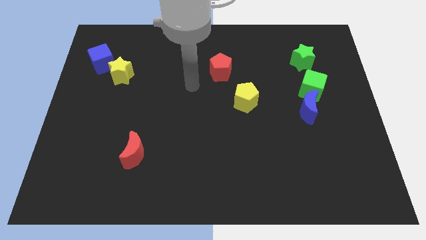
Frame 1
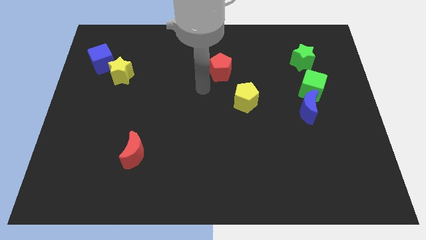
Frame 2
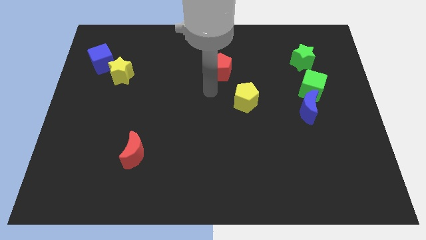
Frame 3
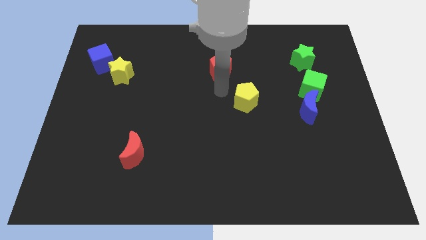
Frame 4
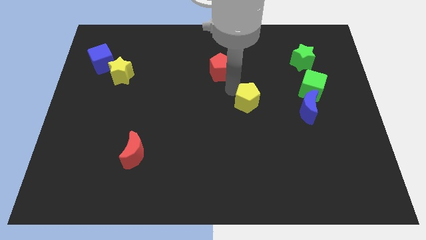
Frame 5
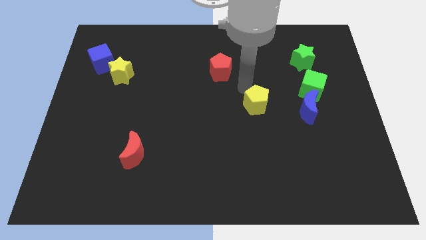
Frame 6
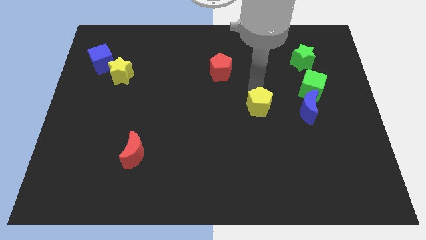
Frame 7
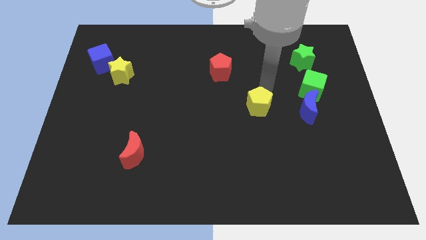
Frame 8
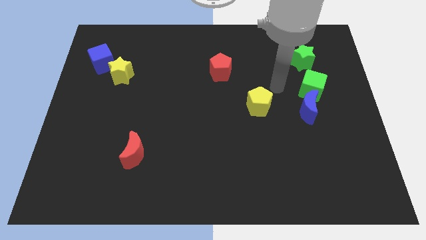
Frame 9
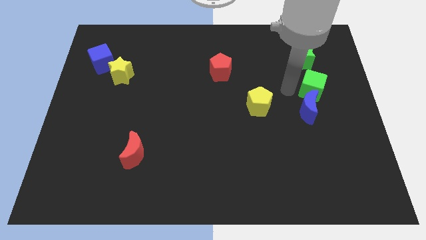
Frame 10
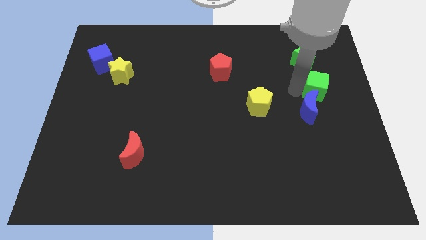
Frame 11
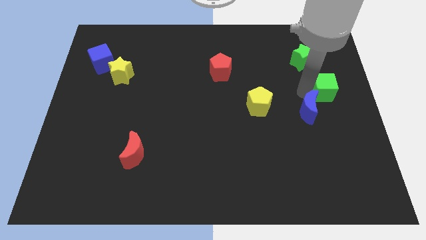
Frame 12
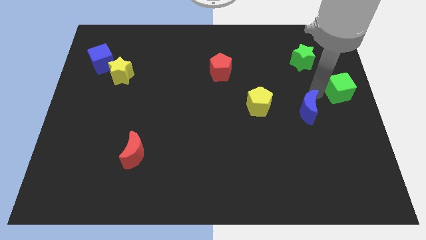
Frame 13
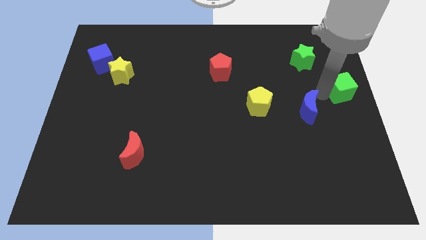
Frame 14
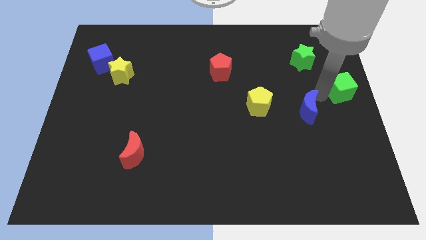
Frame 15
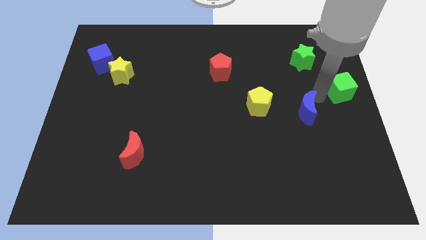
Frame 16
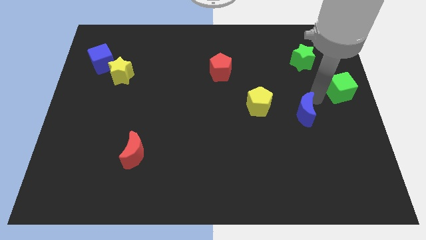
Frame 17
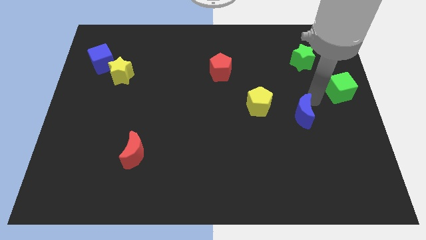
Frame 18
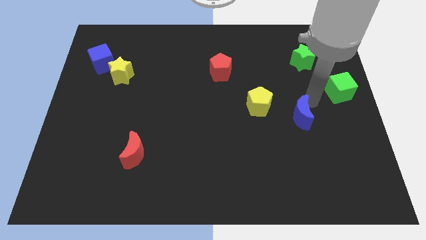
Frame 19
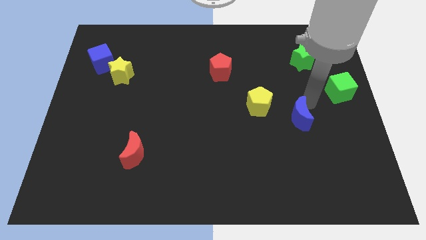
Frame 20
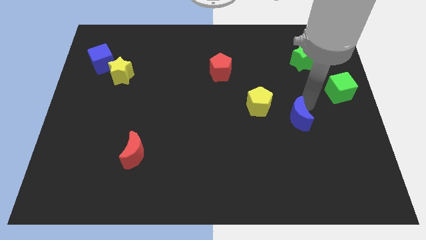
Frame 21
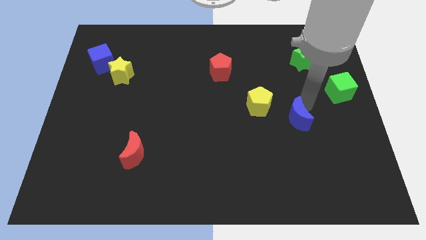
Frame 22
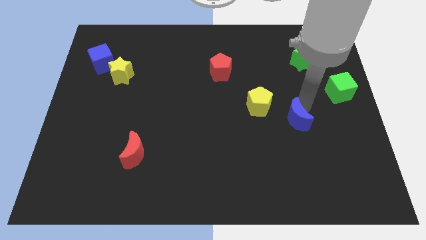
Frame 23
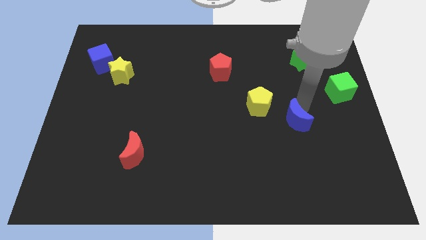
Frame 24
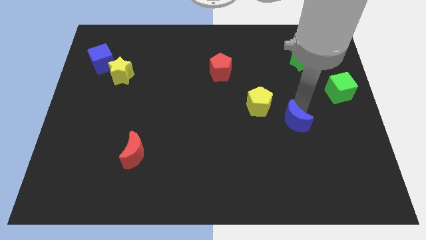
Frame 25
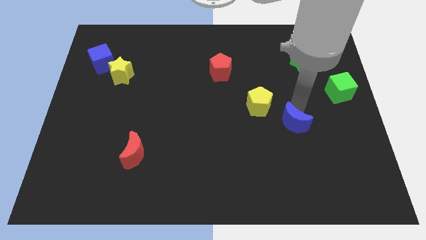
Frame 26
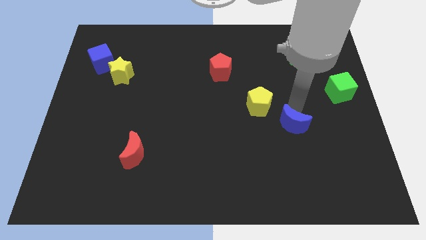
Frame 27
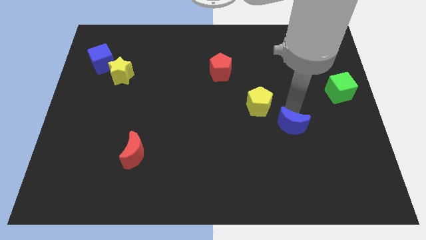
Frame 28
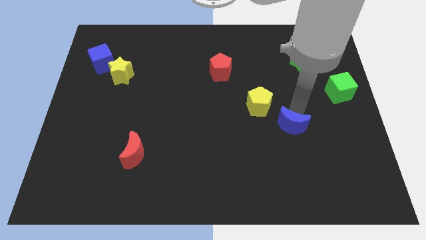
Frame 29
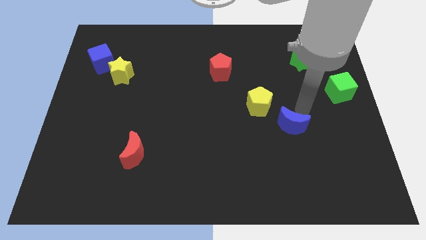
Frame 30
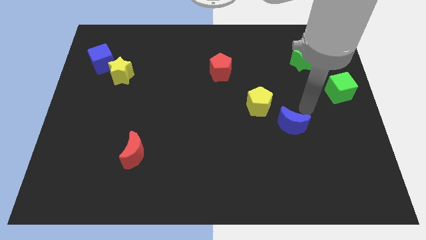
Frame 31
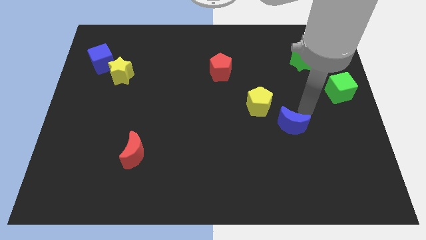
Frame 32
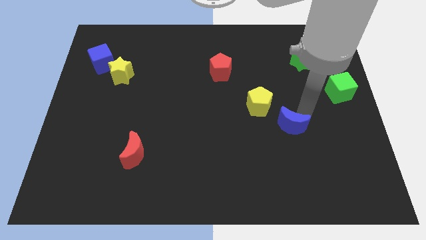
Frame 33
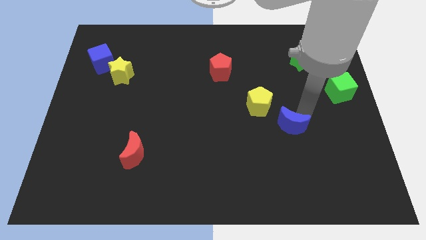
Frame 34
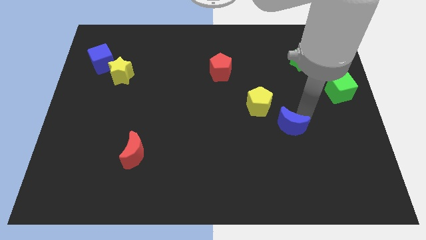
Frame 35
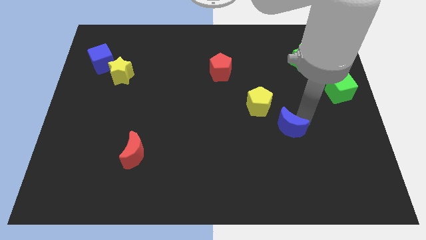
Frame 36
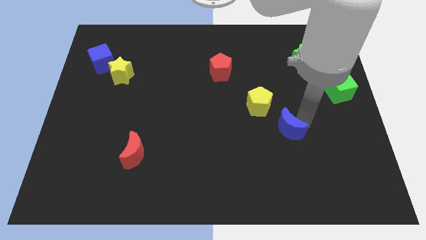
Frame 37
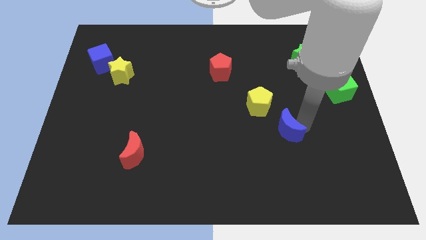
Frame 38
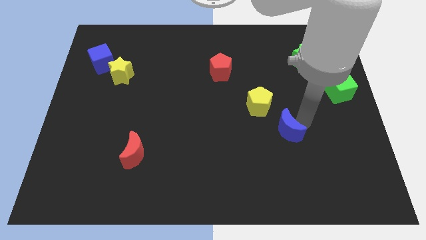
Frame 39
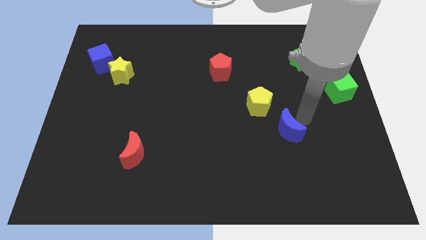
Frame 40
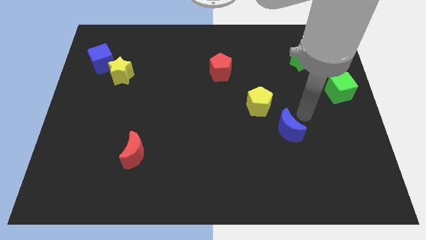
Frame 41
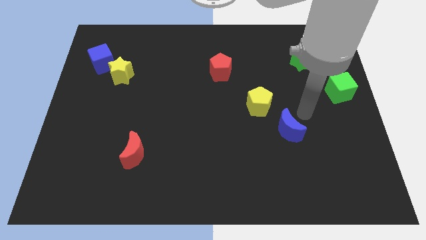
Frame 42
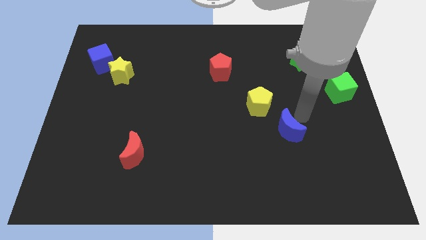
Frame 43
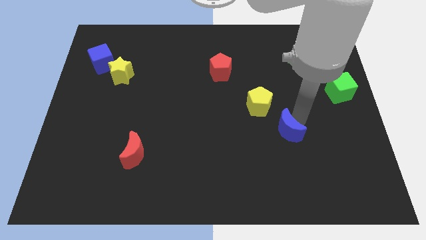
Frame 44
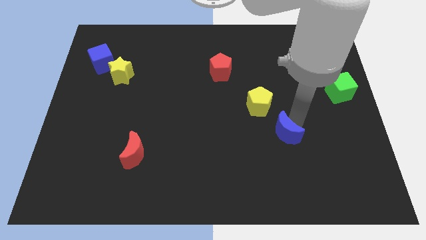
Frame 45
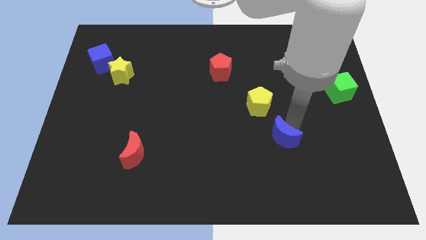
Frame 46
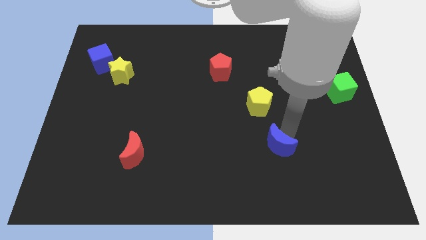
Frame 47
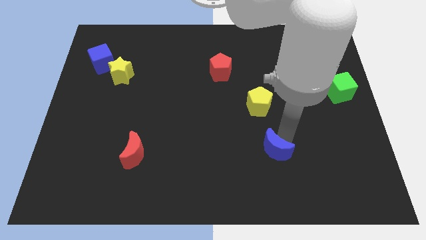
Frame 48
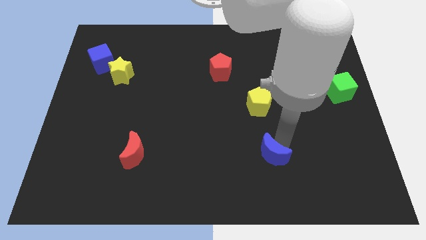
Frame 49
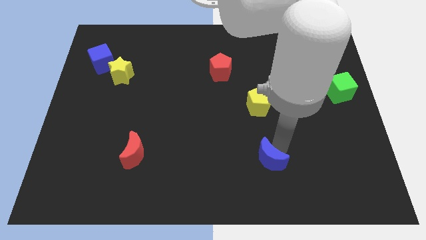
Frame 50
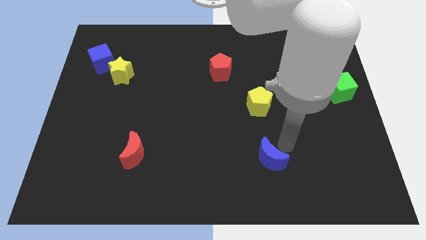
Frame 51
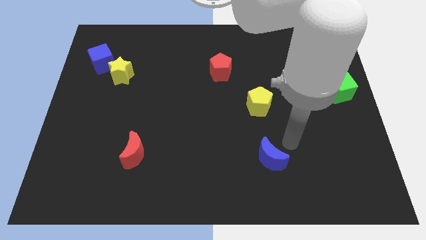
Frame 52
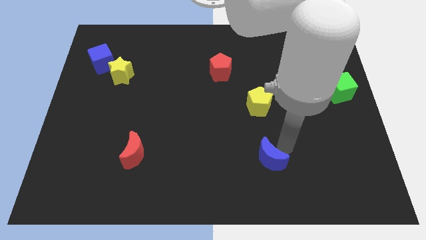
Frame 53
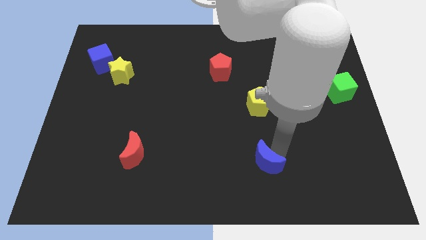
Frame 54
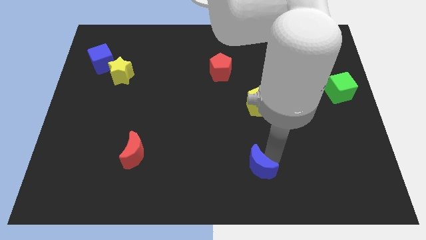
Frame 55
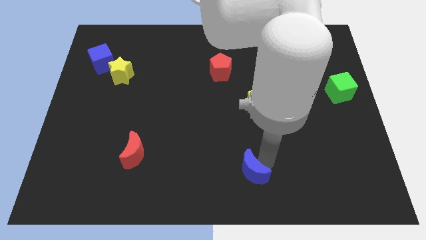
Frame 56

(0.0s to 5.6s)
move the blue moon to the bottom

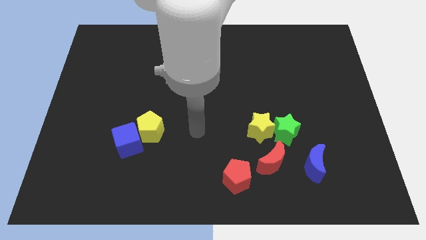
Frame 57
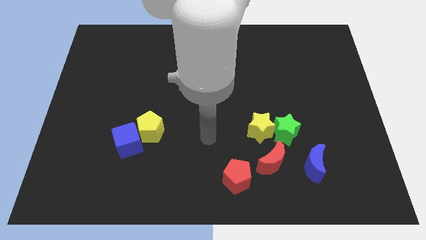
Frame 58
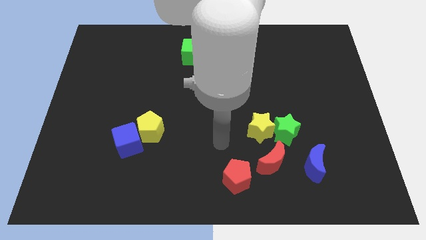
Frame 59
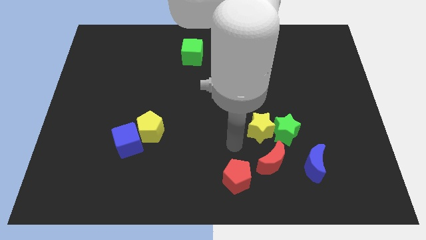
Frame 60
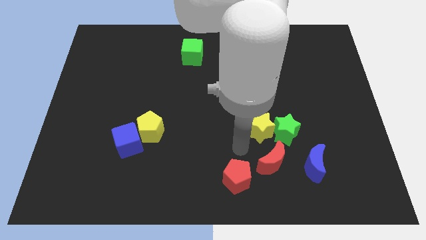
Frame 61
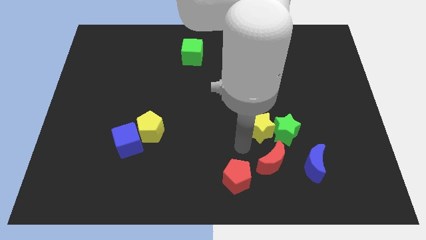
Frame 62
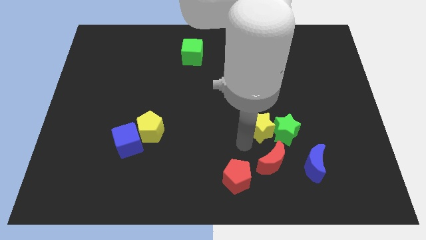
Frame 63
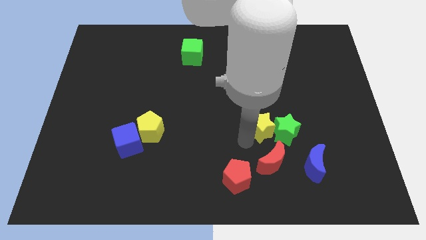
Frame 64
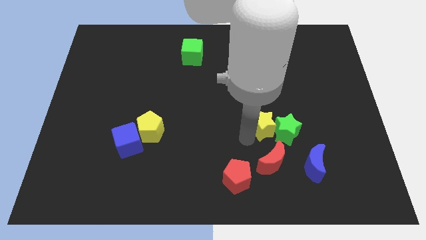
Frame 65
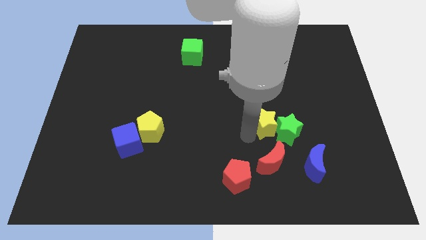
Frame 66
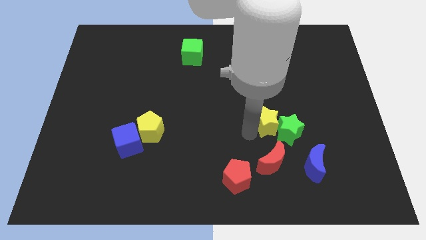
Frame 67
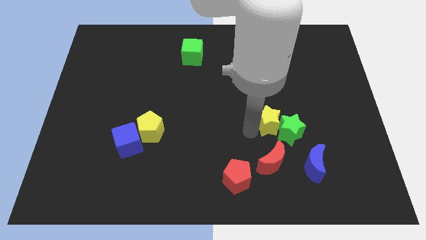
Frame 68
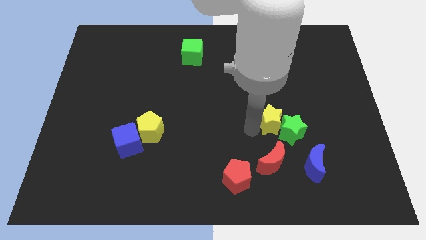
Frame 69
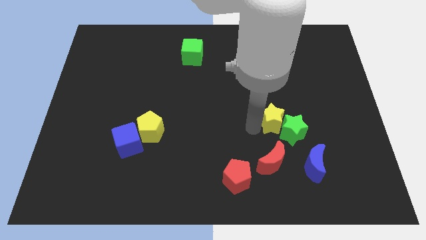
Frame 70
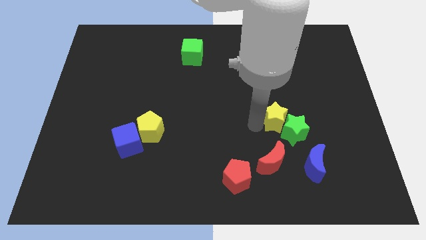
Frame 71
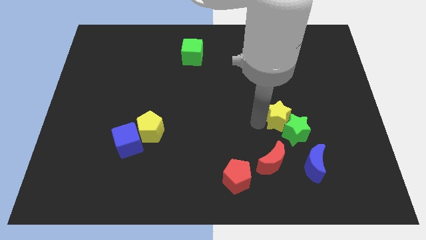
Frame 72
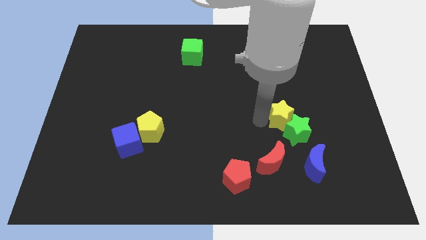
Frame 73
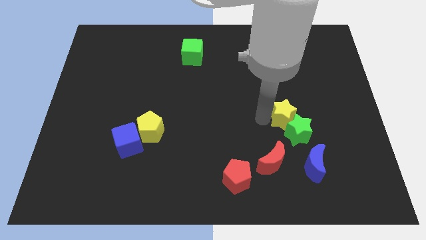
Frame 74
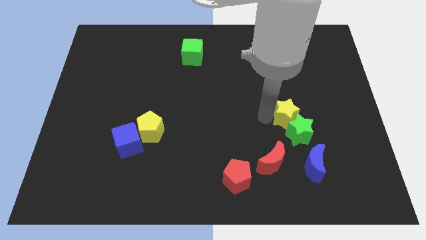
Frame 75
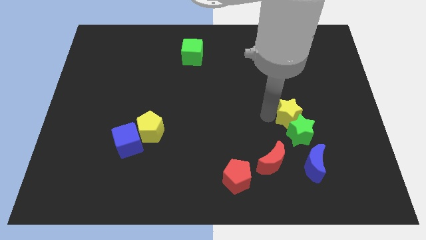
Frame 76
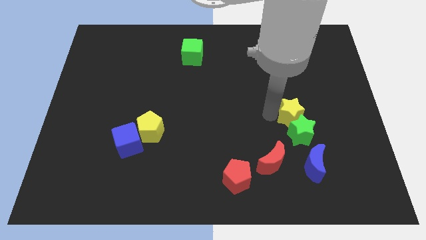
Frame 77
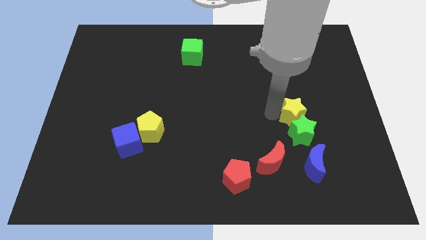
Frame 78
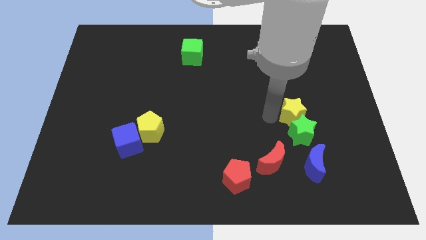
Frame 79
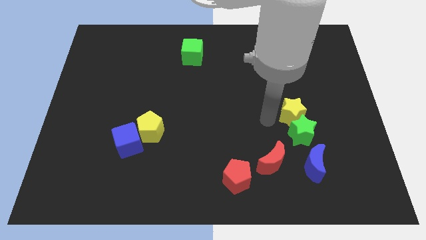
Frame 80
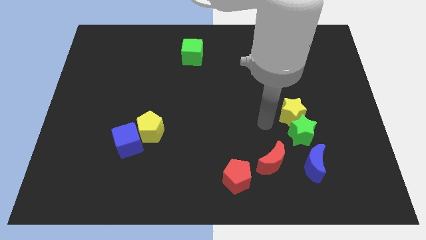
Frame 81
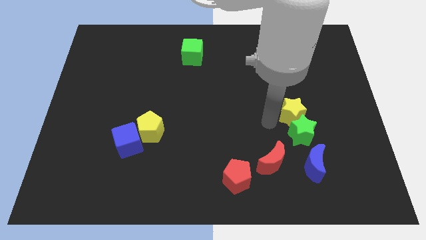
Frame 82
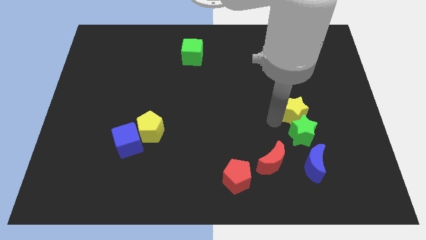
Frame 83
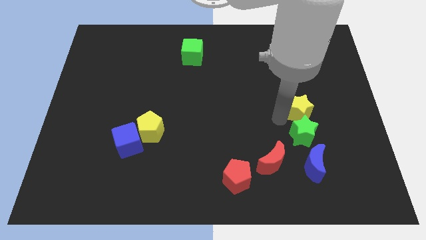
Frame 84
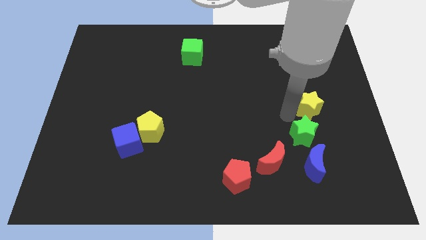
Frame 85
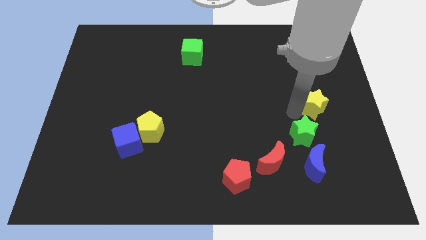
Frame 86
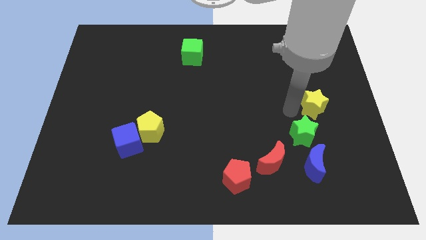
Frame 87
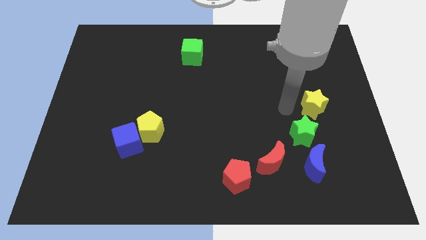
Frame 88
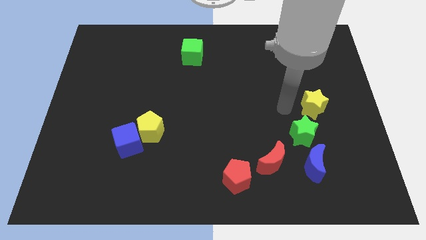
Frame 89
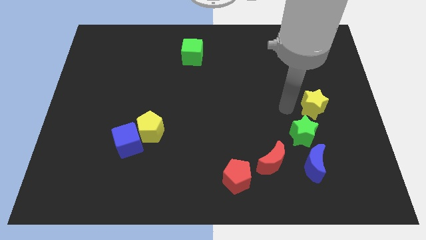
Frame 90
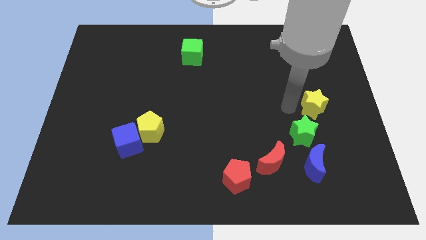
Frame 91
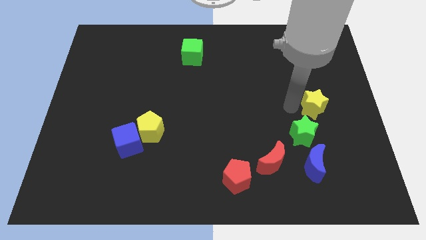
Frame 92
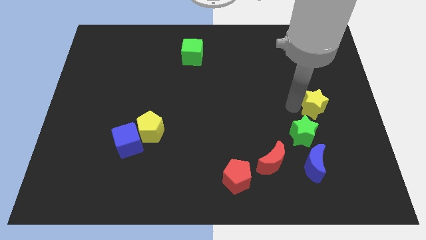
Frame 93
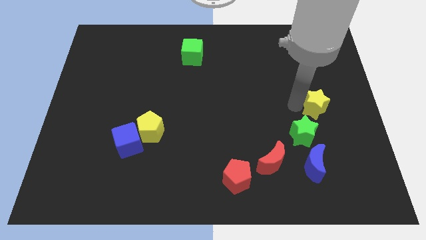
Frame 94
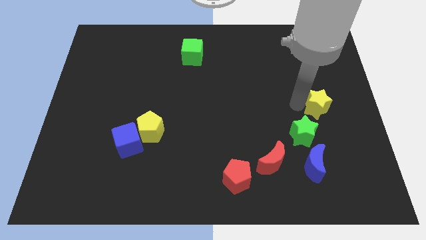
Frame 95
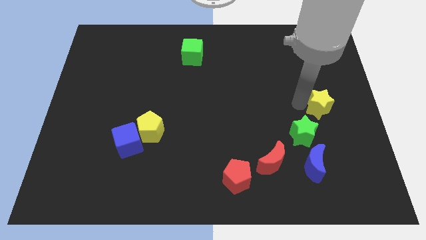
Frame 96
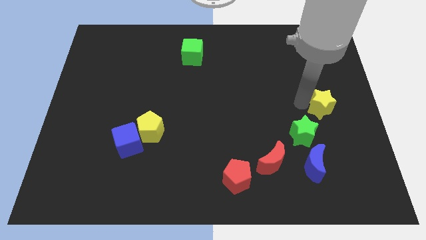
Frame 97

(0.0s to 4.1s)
put the yellow star to the right side
